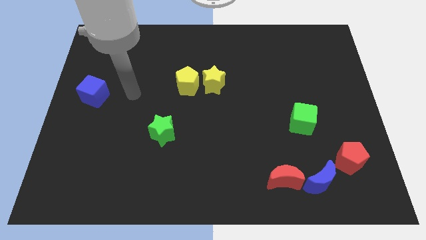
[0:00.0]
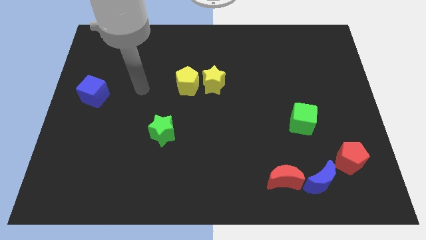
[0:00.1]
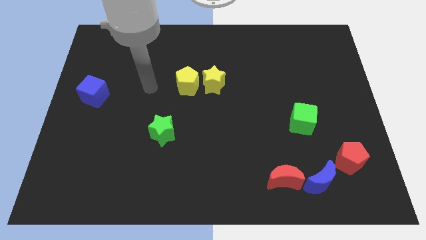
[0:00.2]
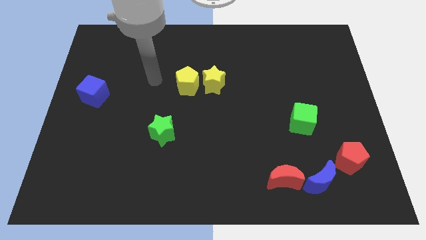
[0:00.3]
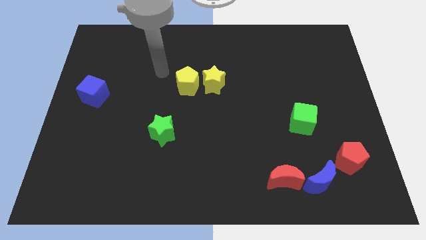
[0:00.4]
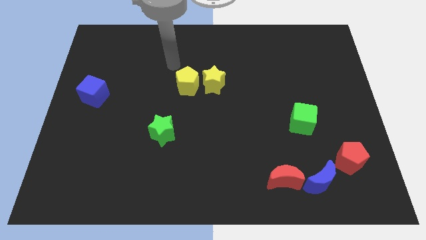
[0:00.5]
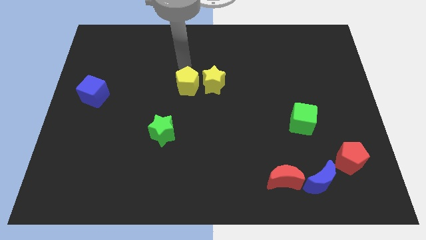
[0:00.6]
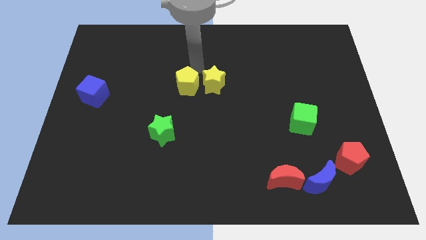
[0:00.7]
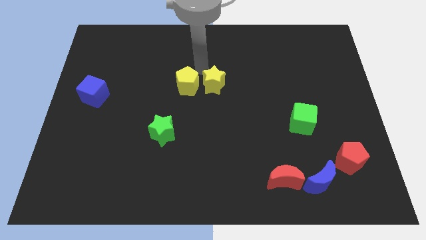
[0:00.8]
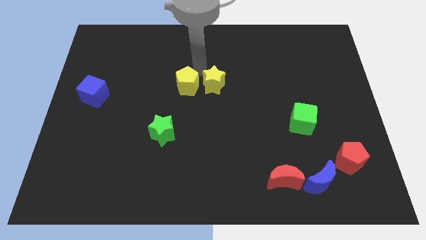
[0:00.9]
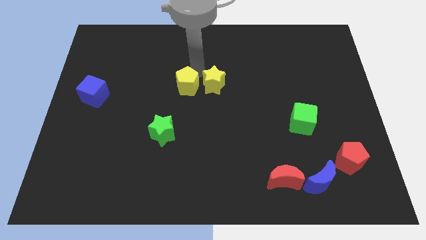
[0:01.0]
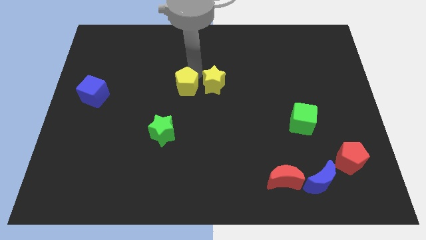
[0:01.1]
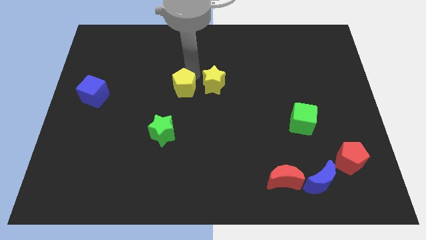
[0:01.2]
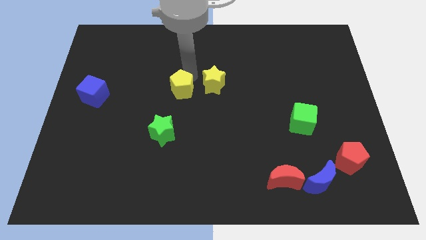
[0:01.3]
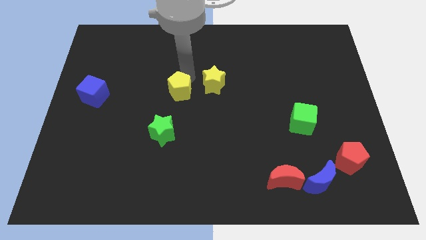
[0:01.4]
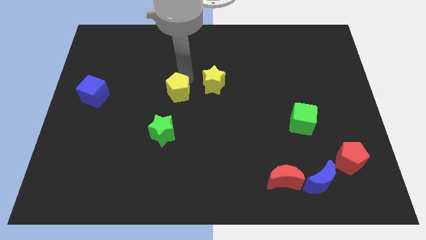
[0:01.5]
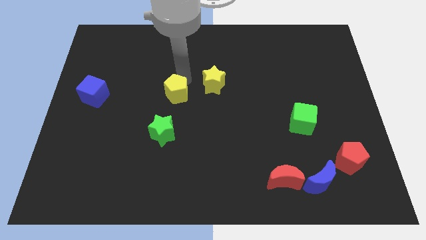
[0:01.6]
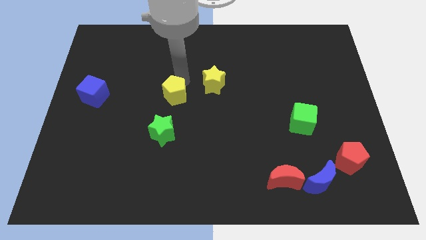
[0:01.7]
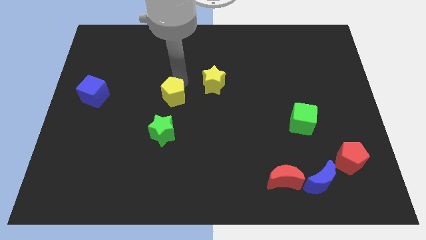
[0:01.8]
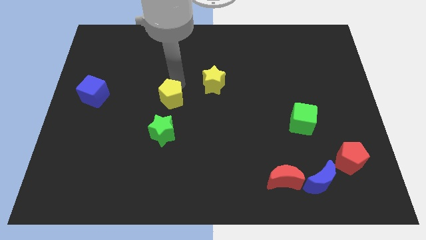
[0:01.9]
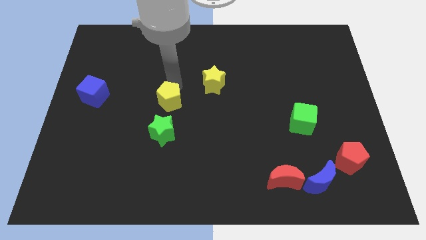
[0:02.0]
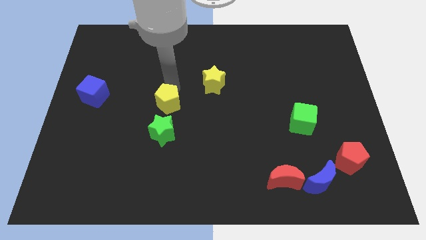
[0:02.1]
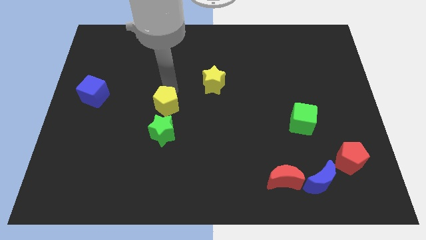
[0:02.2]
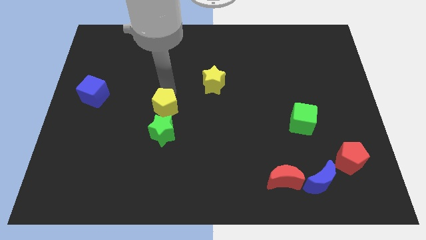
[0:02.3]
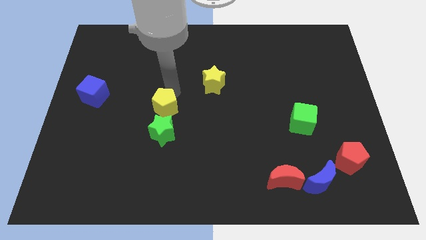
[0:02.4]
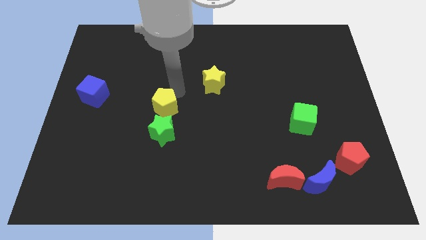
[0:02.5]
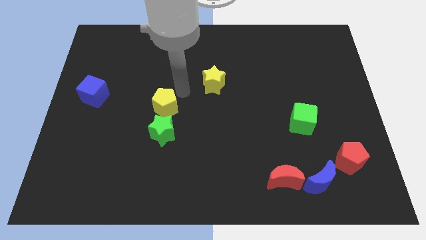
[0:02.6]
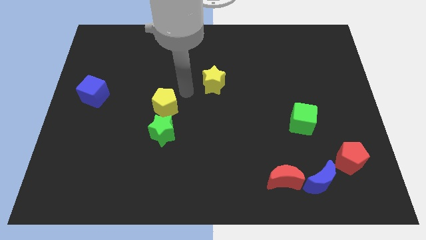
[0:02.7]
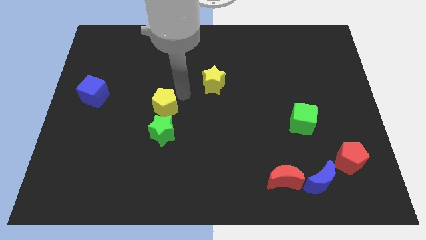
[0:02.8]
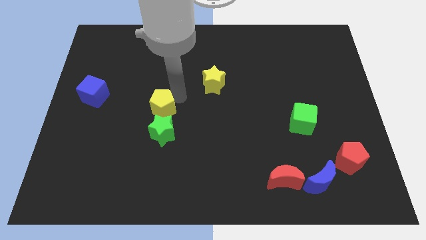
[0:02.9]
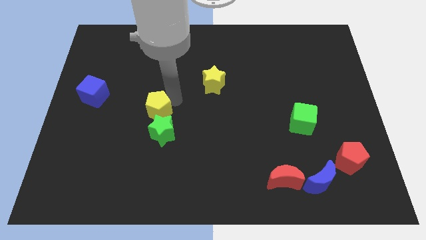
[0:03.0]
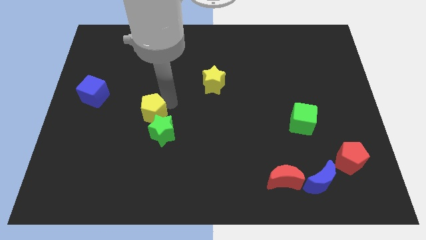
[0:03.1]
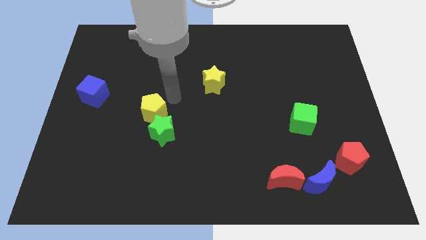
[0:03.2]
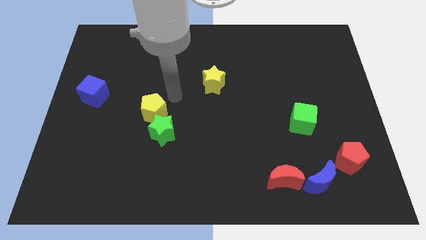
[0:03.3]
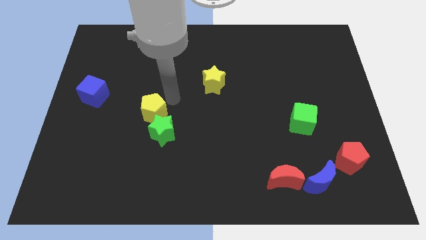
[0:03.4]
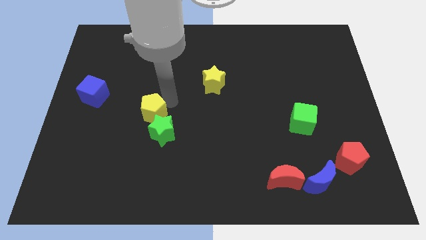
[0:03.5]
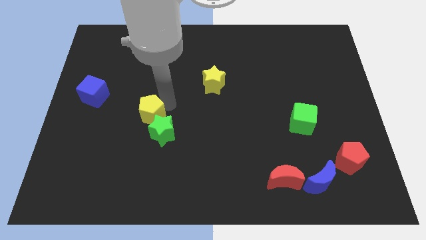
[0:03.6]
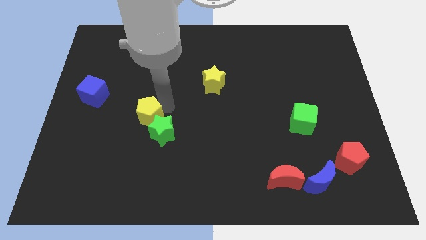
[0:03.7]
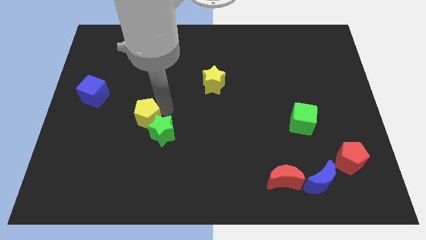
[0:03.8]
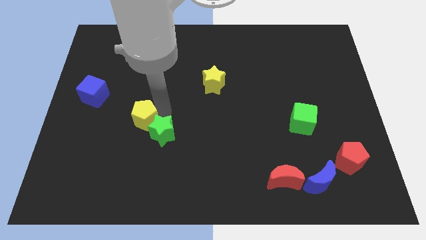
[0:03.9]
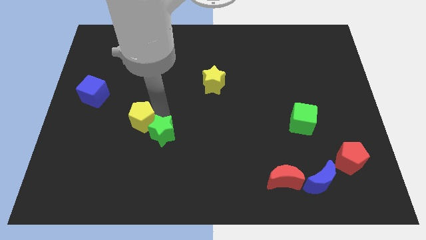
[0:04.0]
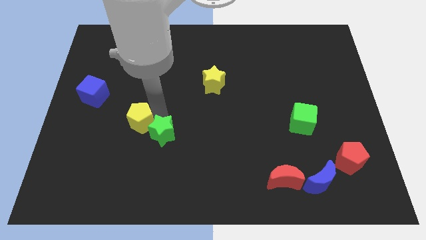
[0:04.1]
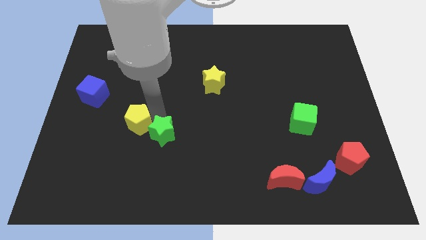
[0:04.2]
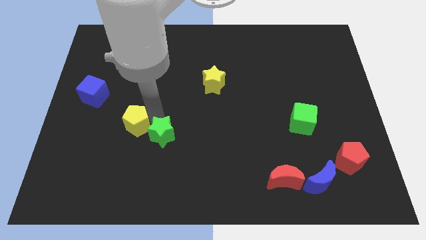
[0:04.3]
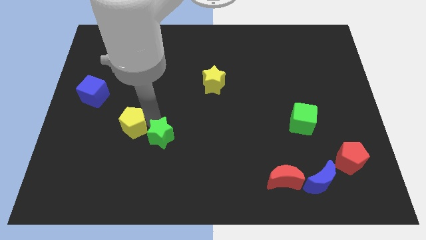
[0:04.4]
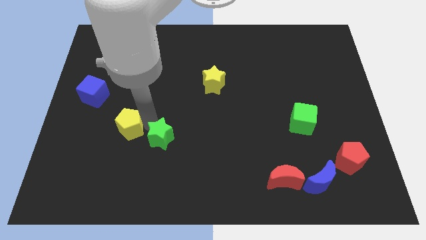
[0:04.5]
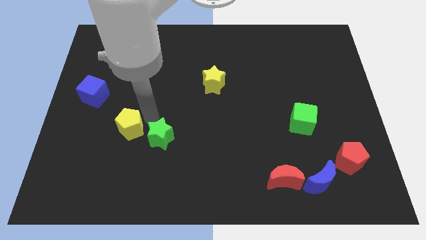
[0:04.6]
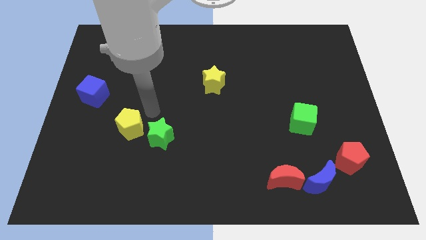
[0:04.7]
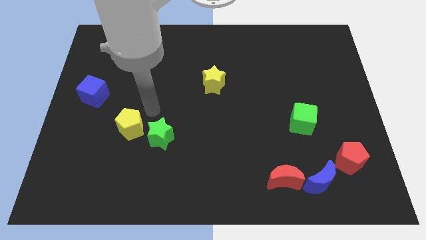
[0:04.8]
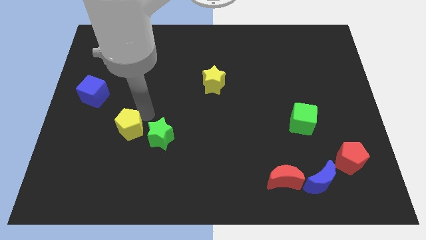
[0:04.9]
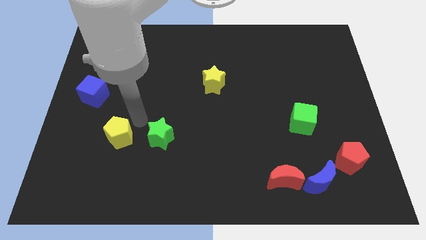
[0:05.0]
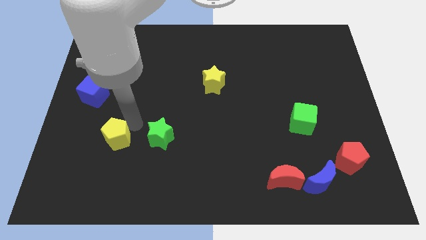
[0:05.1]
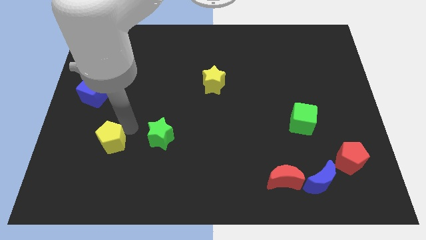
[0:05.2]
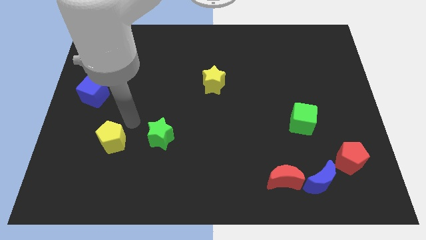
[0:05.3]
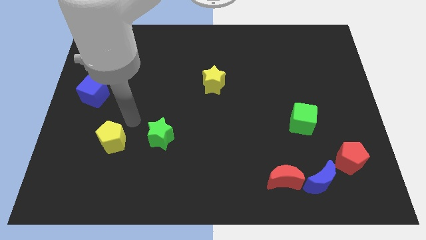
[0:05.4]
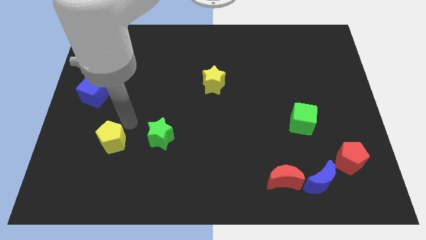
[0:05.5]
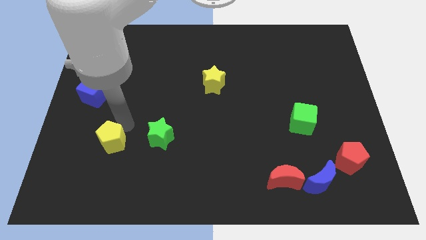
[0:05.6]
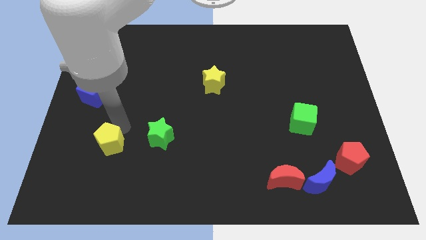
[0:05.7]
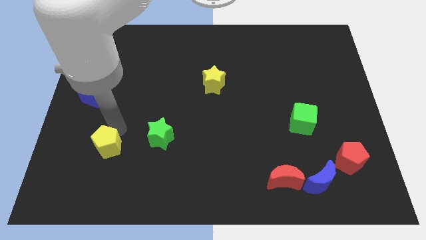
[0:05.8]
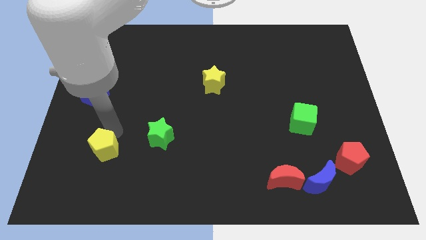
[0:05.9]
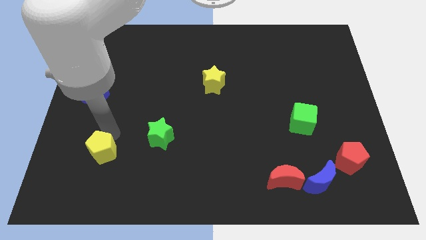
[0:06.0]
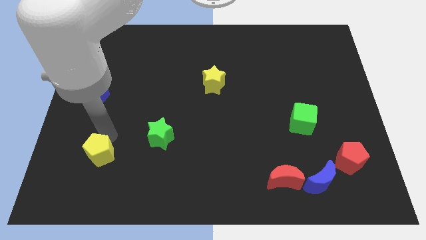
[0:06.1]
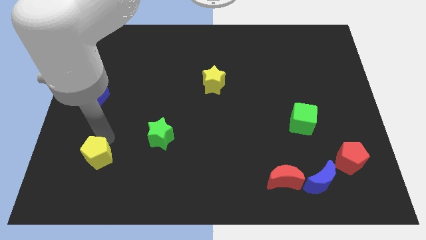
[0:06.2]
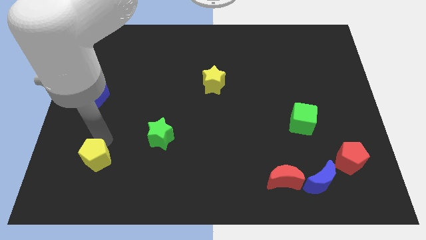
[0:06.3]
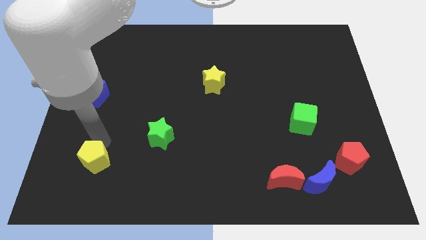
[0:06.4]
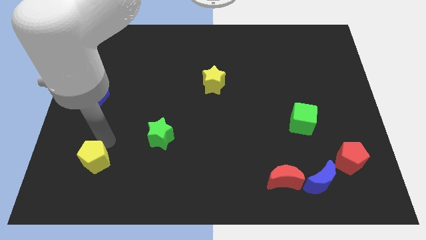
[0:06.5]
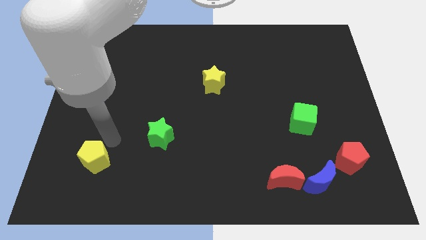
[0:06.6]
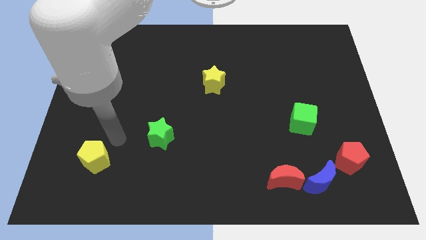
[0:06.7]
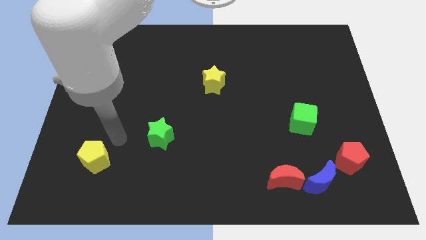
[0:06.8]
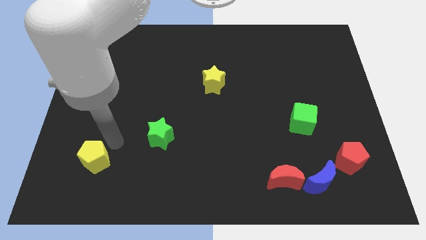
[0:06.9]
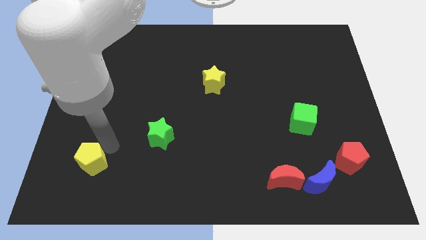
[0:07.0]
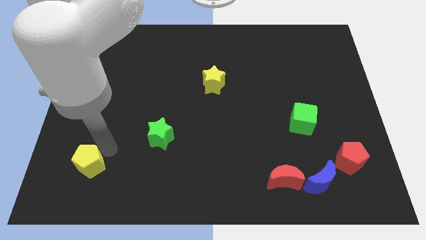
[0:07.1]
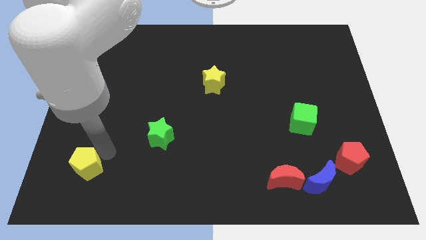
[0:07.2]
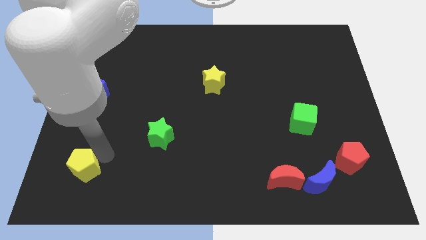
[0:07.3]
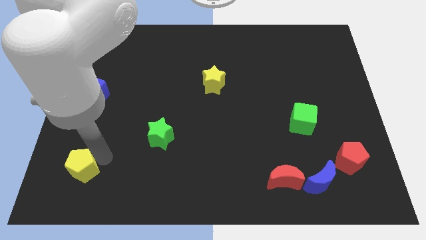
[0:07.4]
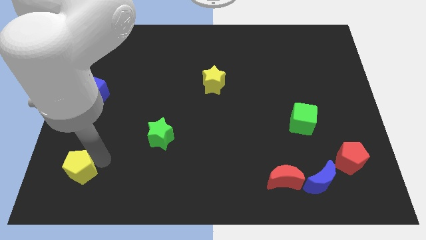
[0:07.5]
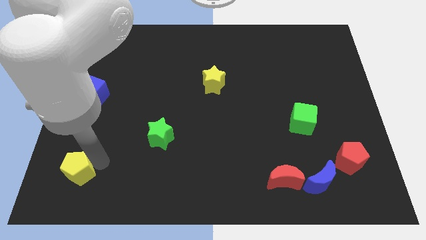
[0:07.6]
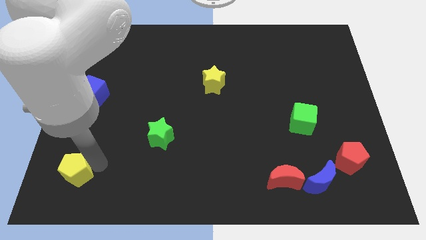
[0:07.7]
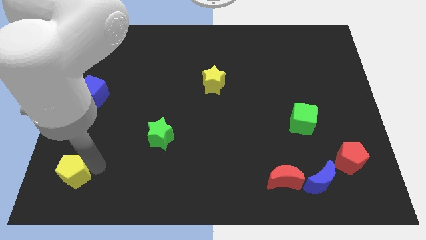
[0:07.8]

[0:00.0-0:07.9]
put the yellow pentagon to the lower left corner
